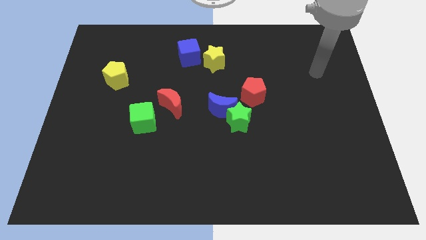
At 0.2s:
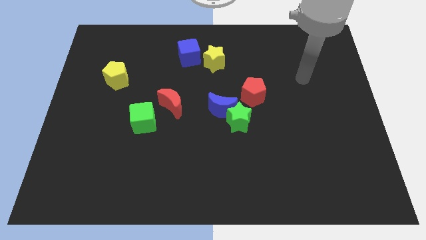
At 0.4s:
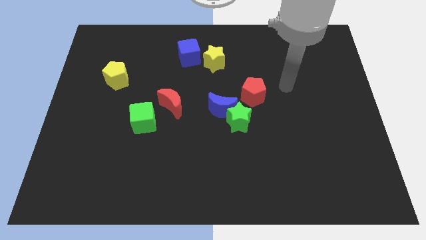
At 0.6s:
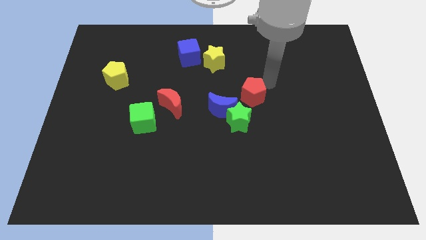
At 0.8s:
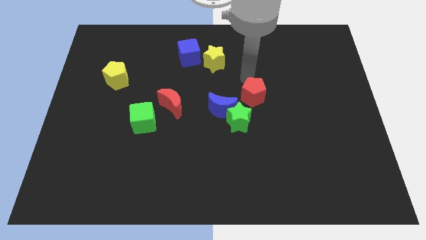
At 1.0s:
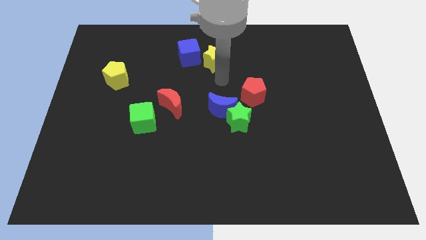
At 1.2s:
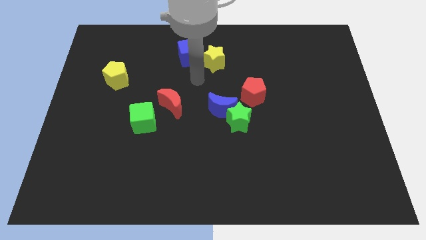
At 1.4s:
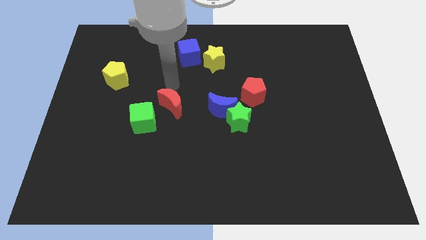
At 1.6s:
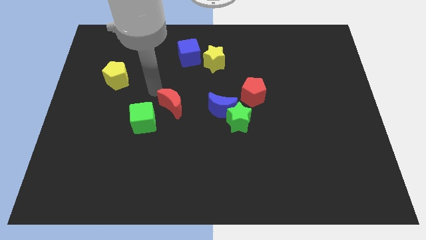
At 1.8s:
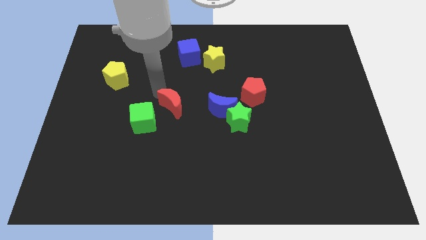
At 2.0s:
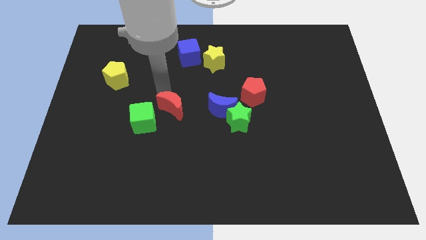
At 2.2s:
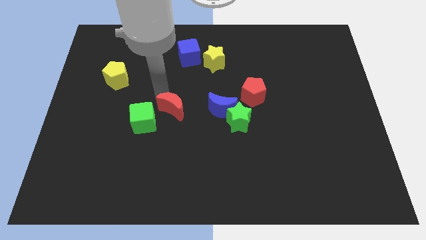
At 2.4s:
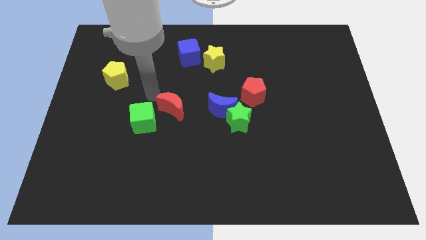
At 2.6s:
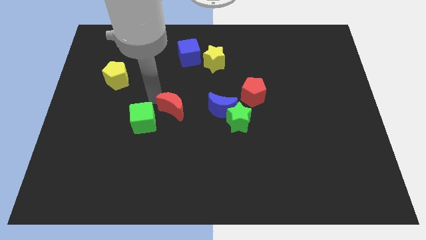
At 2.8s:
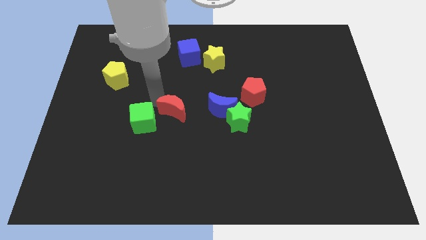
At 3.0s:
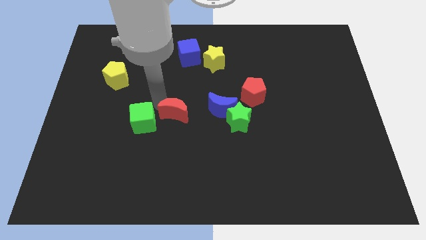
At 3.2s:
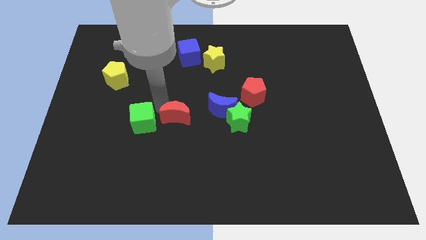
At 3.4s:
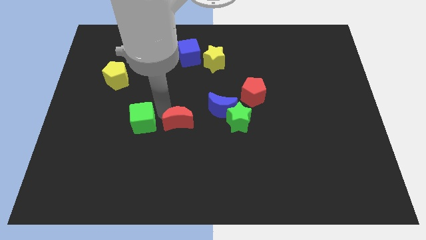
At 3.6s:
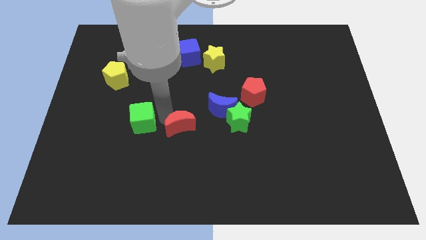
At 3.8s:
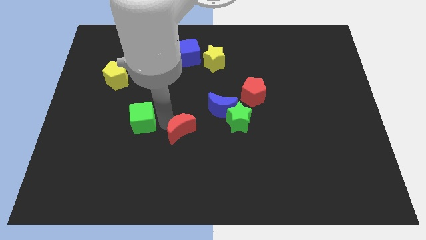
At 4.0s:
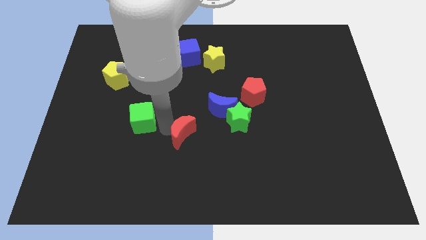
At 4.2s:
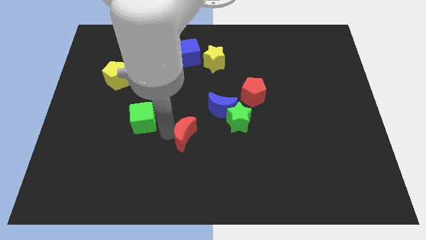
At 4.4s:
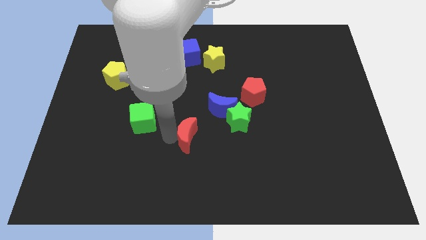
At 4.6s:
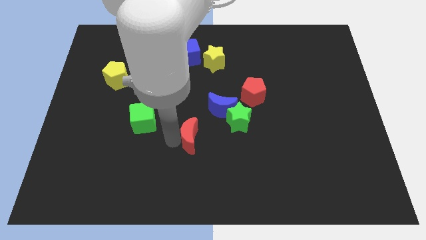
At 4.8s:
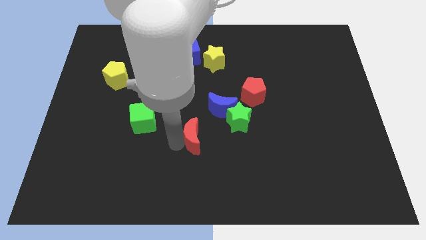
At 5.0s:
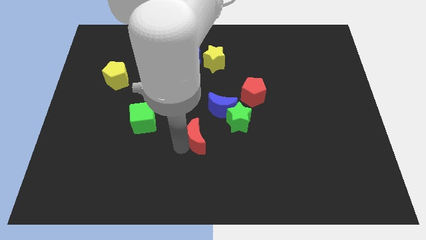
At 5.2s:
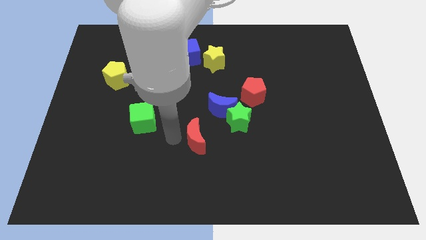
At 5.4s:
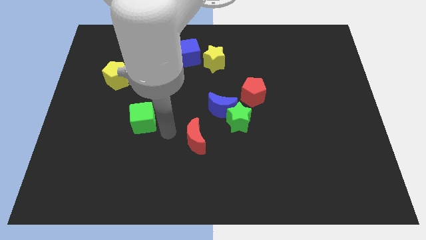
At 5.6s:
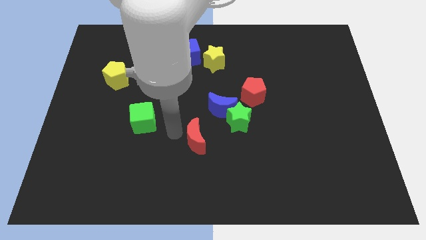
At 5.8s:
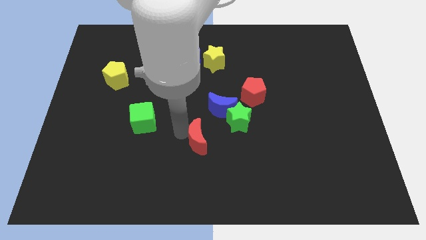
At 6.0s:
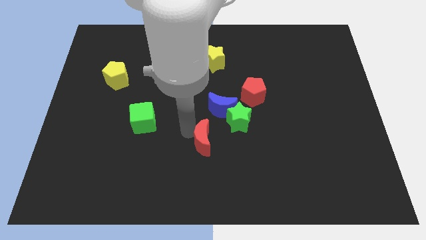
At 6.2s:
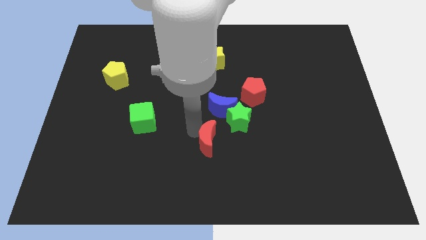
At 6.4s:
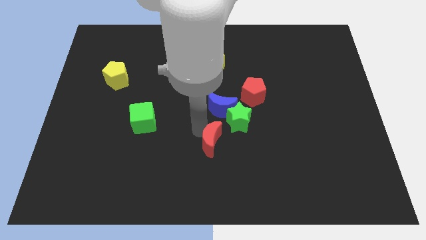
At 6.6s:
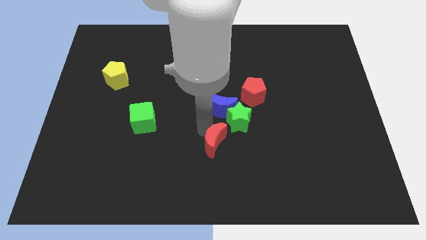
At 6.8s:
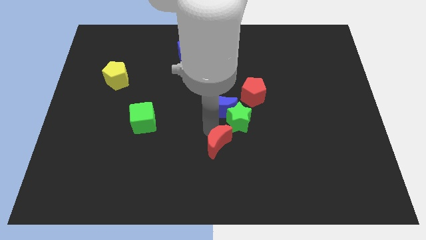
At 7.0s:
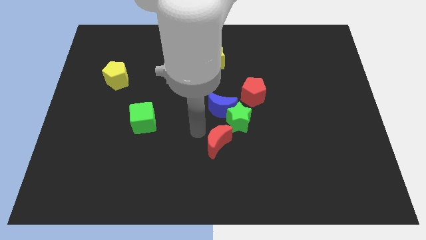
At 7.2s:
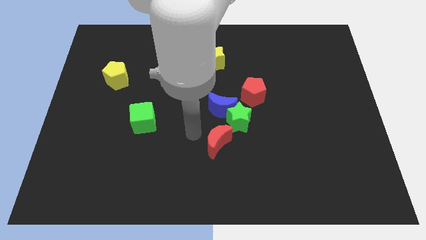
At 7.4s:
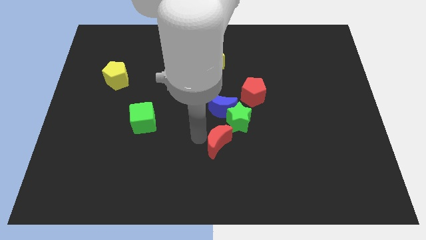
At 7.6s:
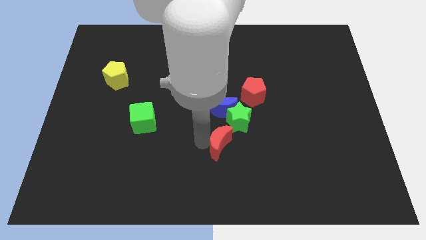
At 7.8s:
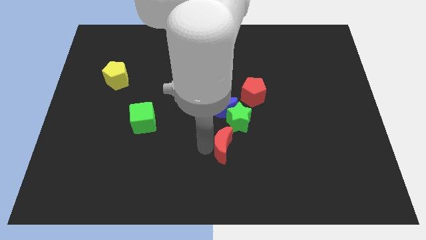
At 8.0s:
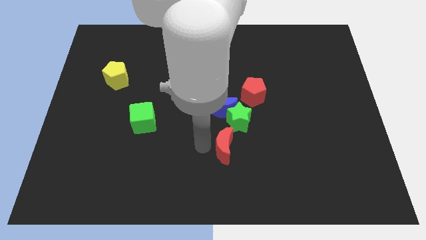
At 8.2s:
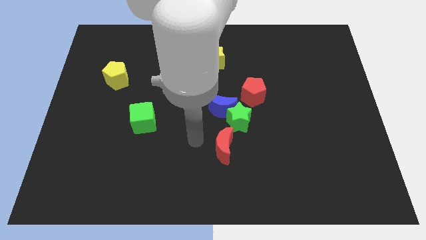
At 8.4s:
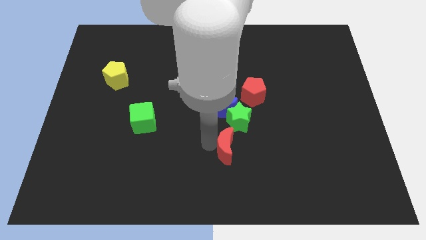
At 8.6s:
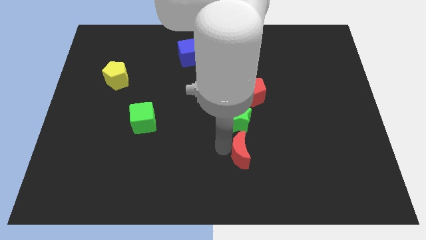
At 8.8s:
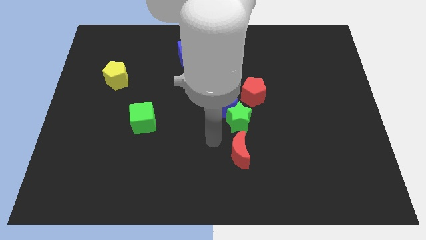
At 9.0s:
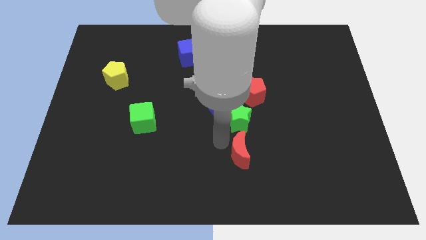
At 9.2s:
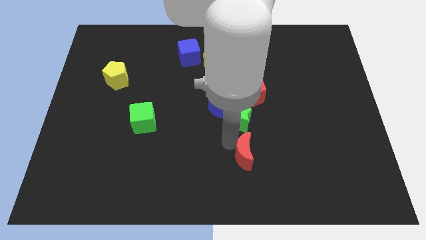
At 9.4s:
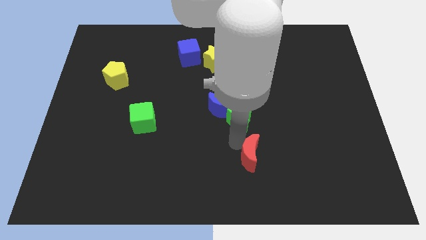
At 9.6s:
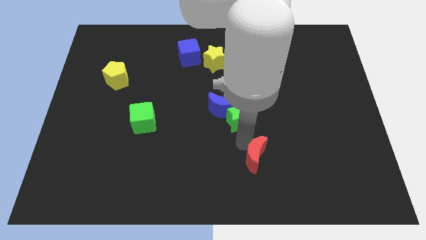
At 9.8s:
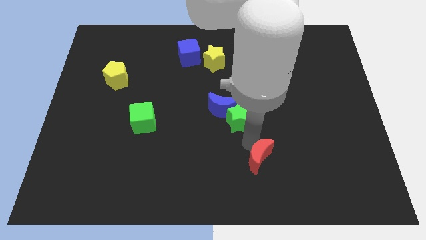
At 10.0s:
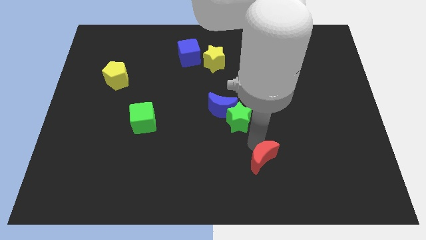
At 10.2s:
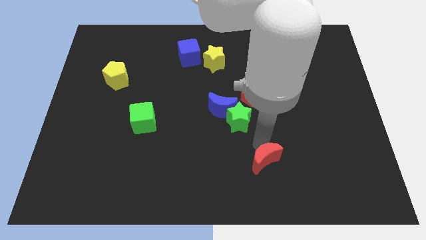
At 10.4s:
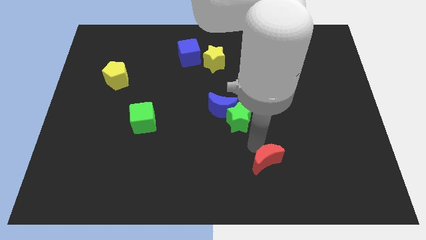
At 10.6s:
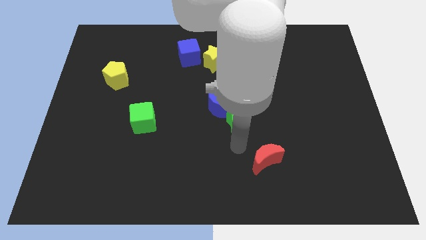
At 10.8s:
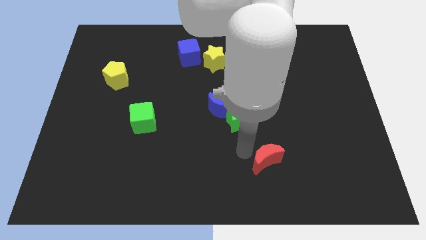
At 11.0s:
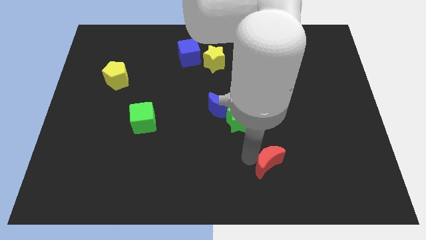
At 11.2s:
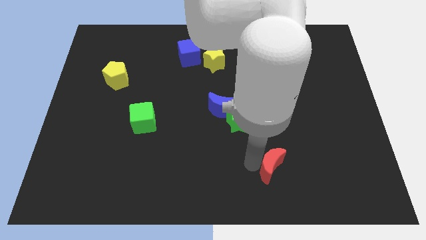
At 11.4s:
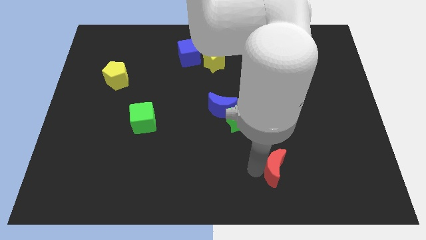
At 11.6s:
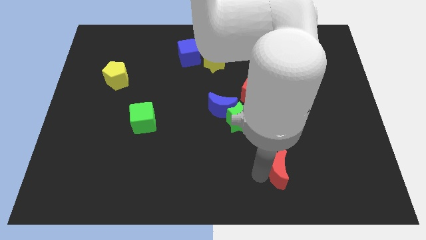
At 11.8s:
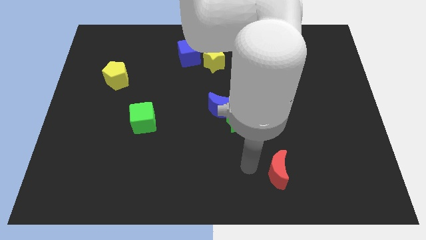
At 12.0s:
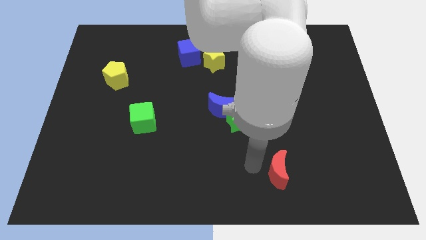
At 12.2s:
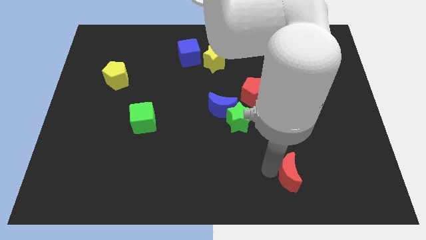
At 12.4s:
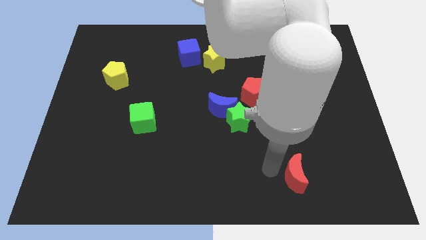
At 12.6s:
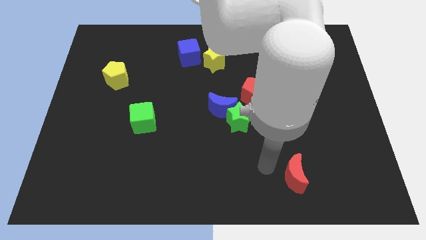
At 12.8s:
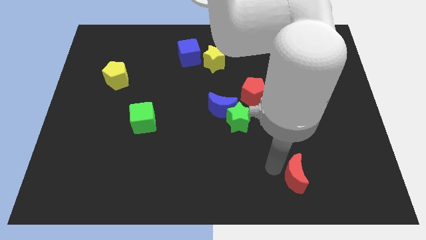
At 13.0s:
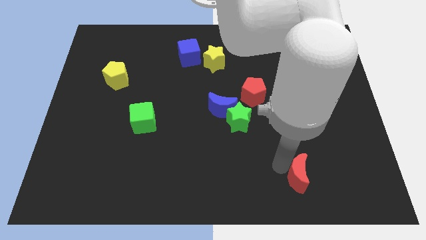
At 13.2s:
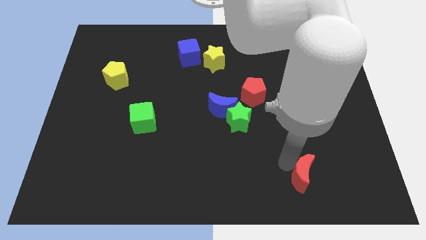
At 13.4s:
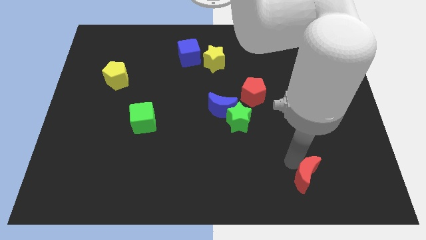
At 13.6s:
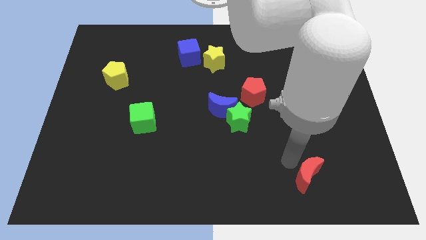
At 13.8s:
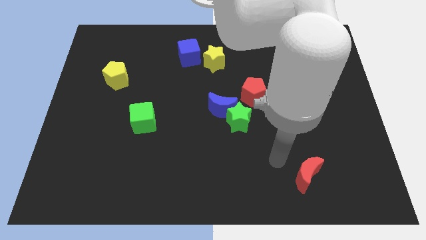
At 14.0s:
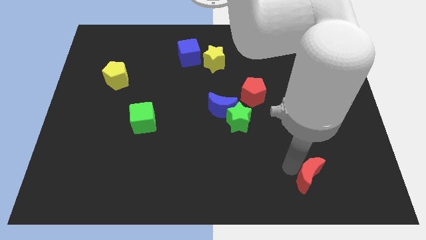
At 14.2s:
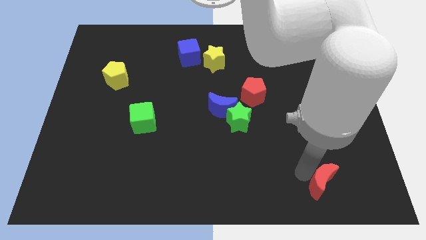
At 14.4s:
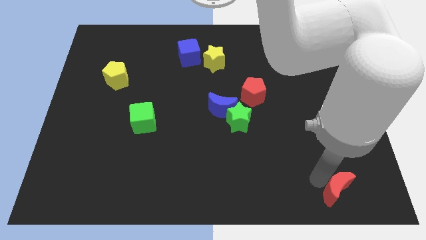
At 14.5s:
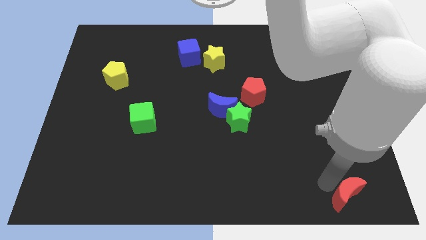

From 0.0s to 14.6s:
move the red moon to the bottom right of the board

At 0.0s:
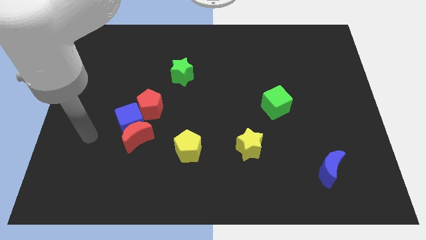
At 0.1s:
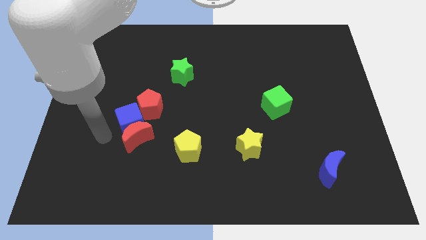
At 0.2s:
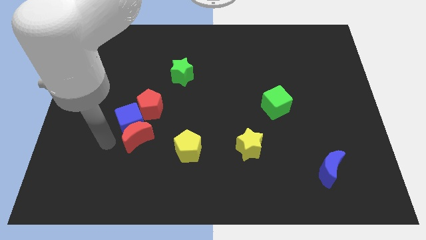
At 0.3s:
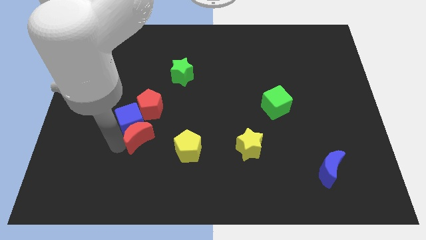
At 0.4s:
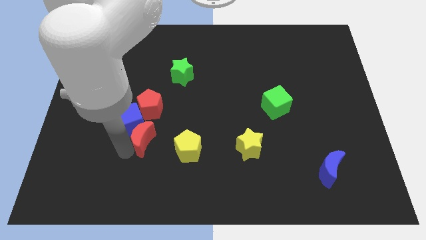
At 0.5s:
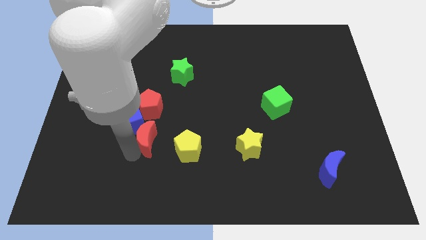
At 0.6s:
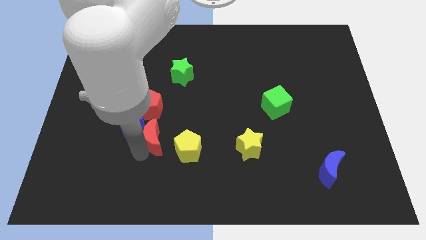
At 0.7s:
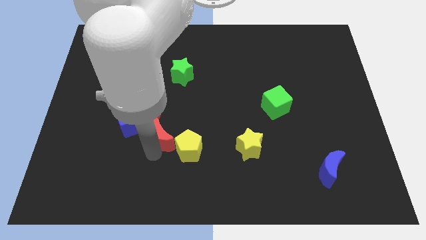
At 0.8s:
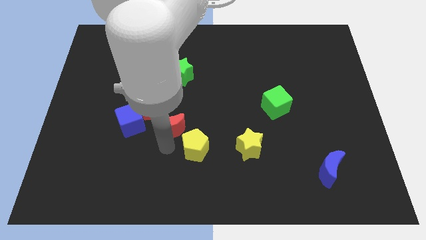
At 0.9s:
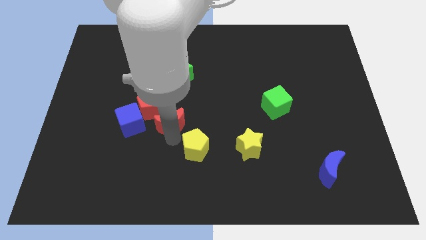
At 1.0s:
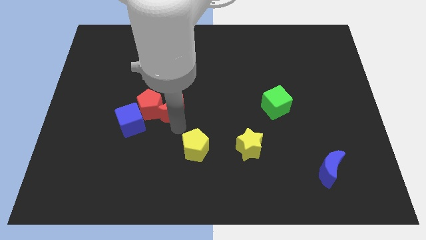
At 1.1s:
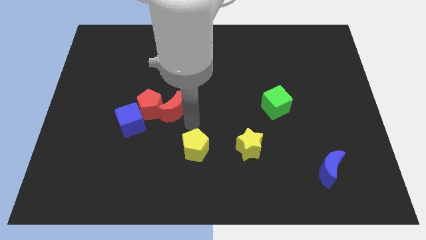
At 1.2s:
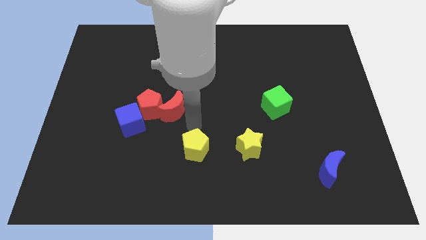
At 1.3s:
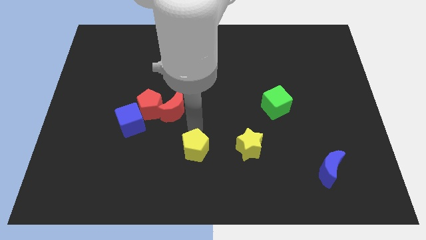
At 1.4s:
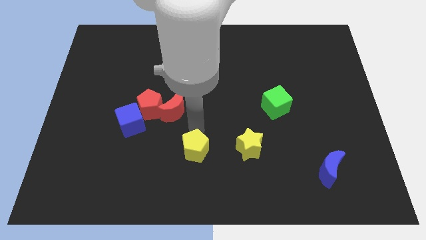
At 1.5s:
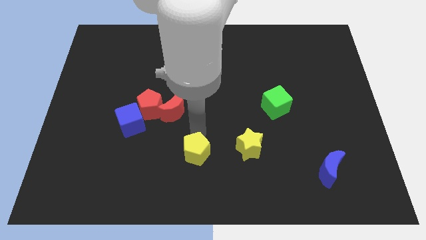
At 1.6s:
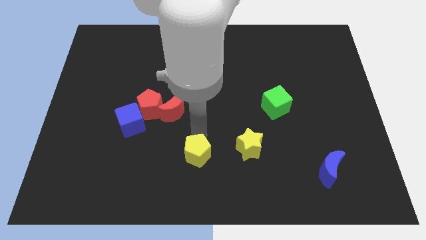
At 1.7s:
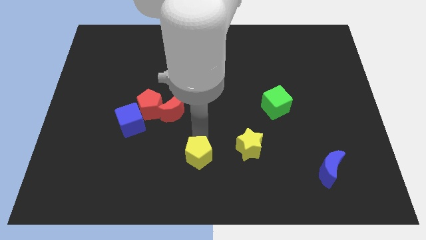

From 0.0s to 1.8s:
move the yellow pentagon to the bottom
